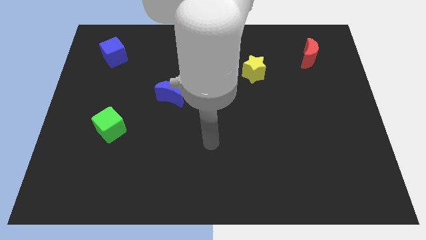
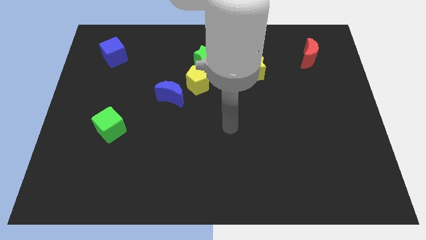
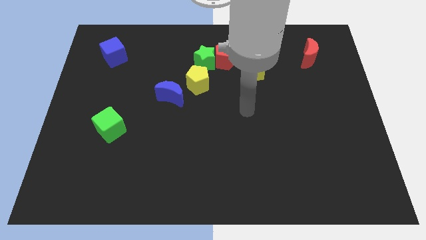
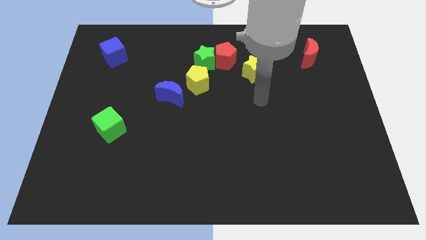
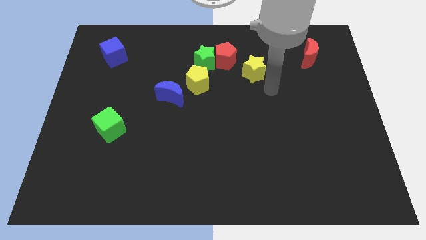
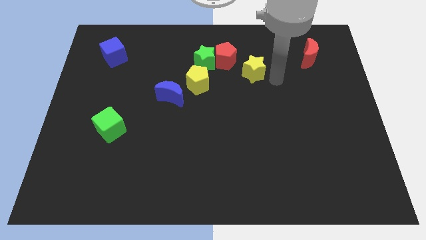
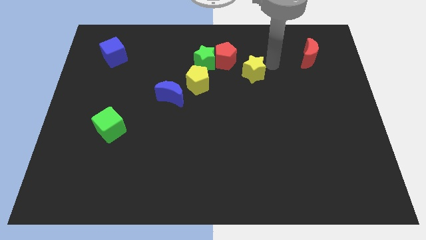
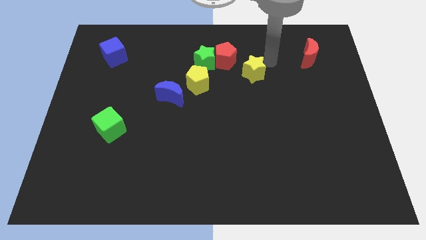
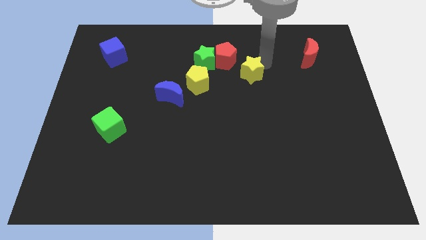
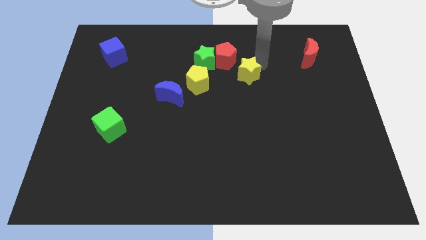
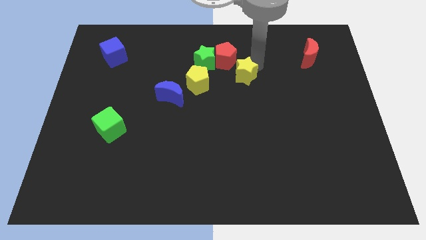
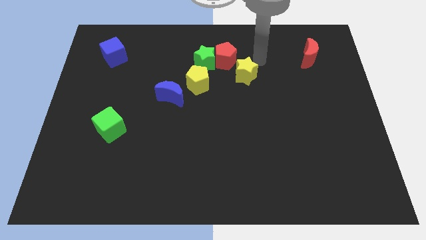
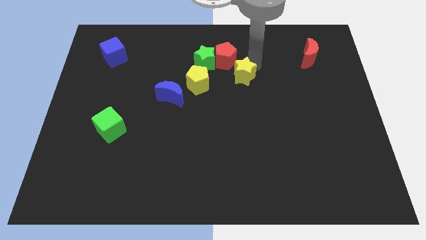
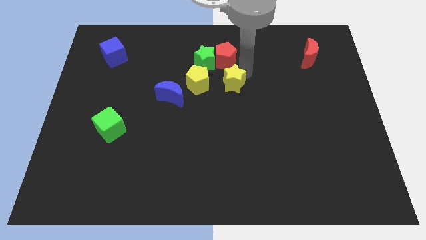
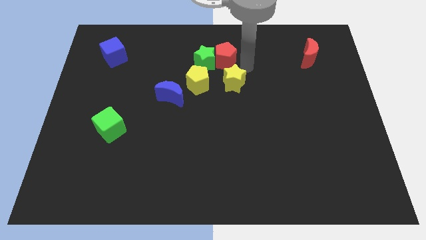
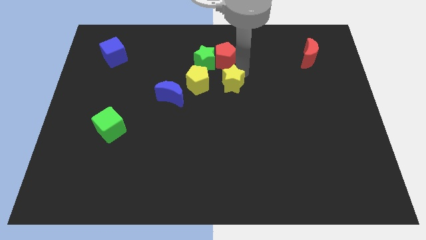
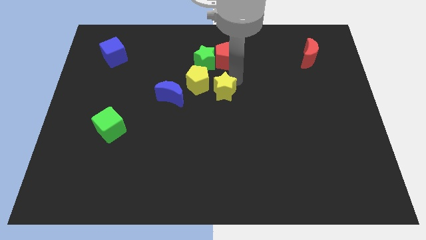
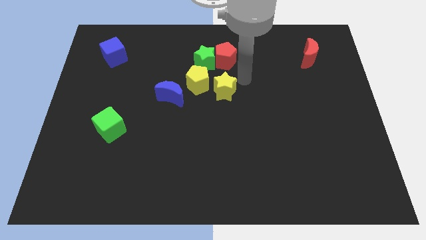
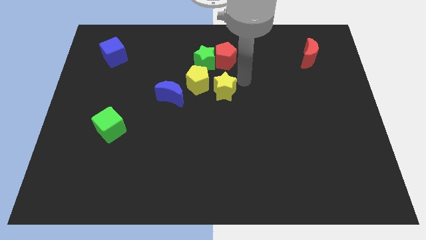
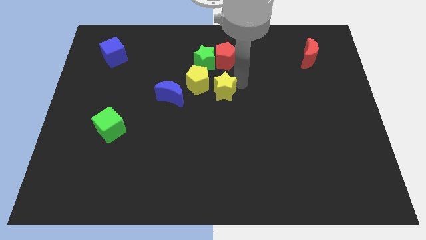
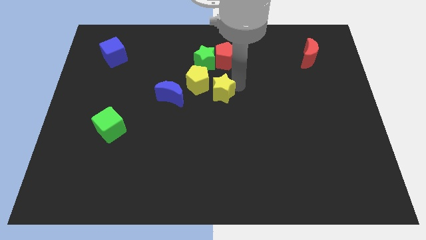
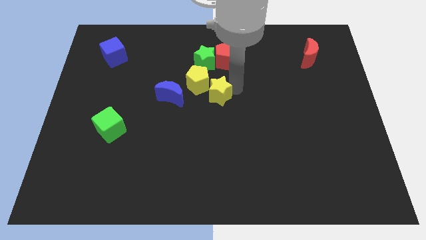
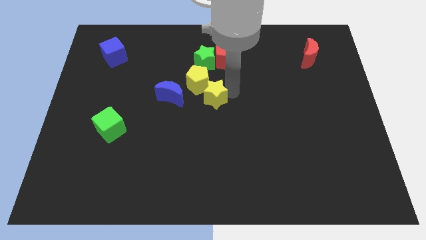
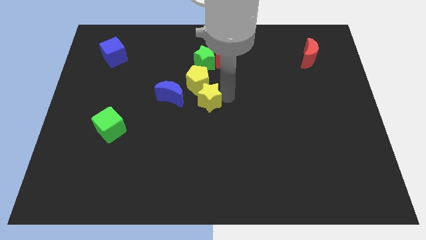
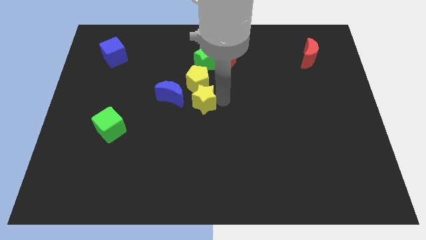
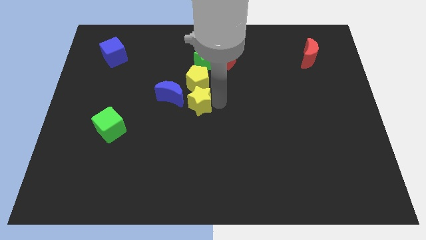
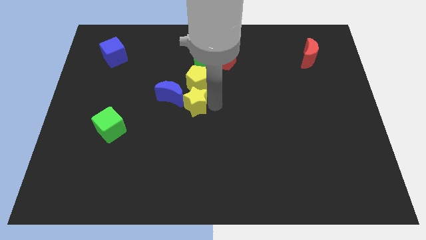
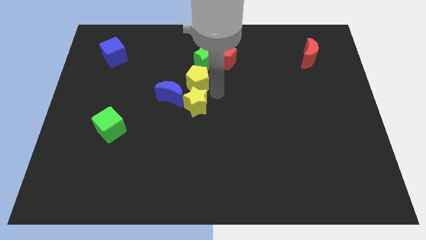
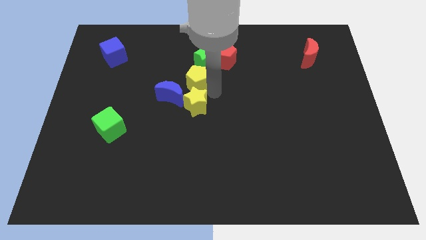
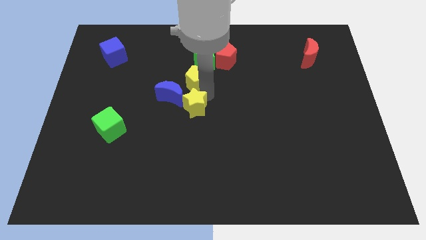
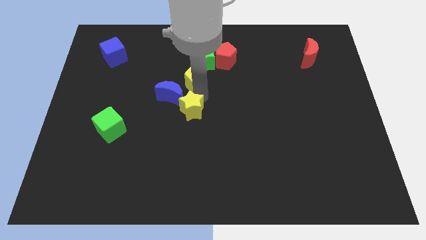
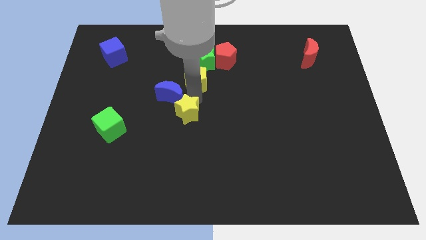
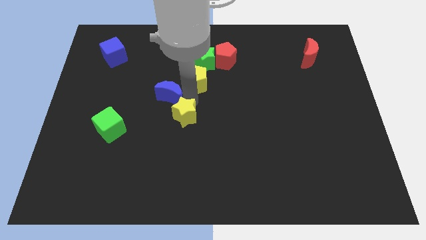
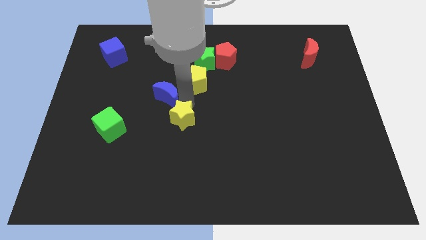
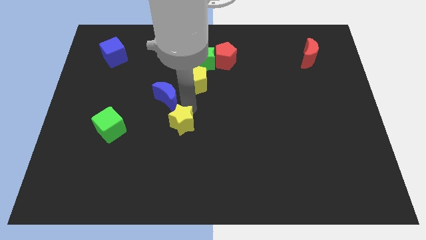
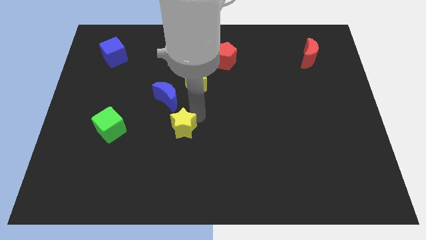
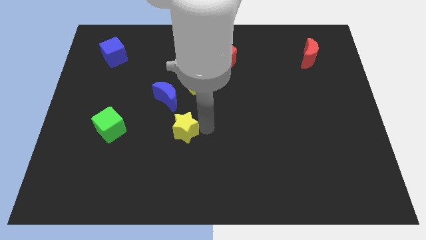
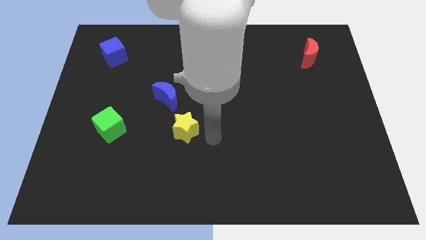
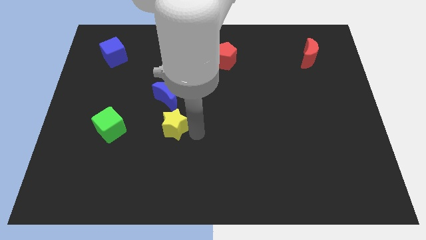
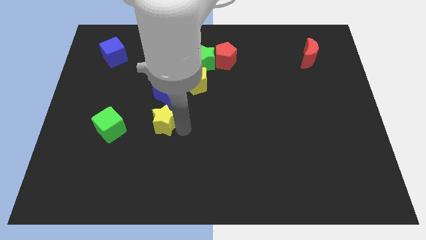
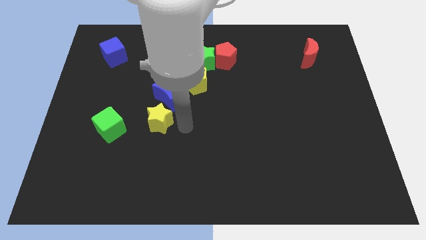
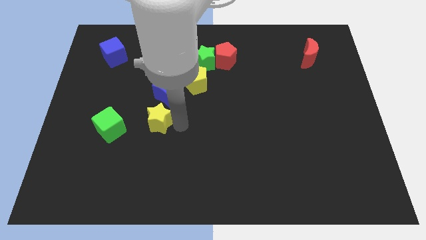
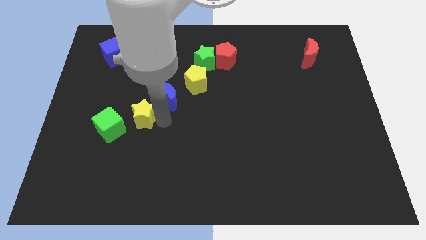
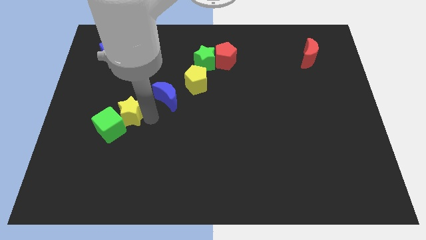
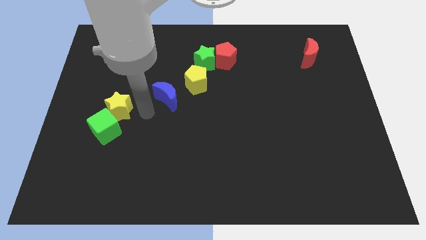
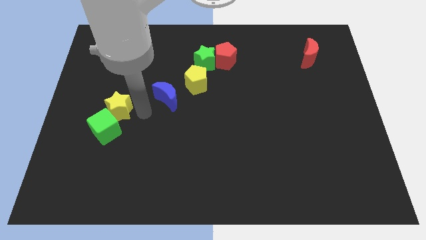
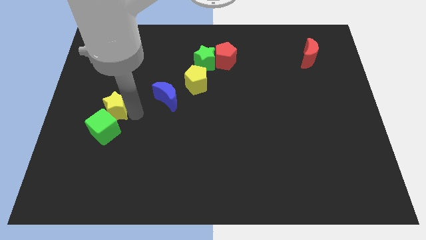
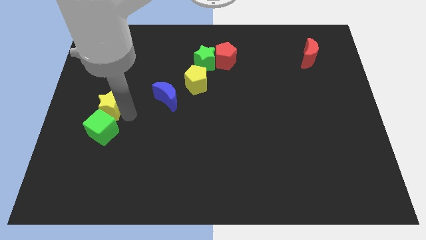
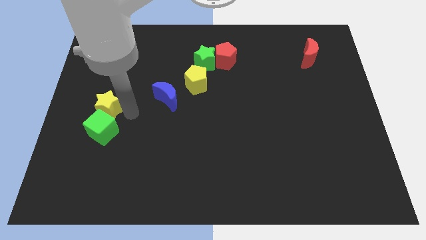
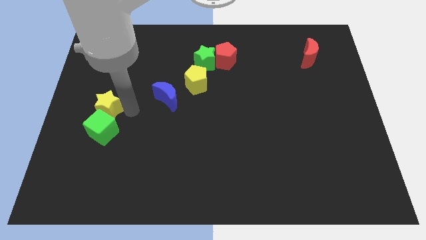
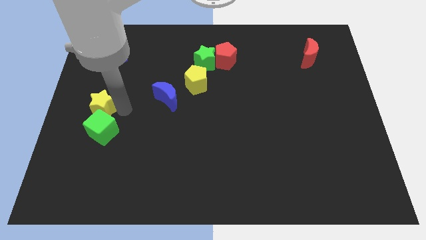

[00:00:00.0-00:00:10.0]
slide the yellow star to the left side

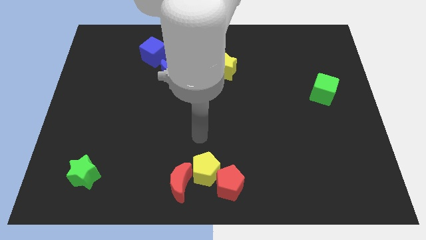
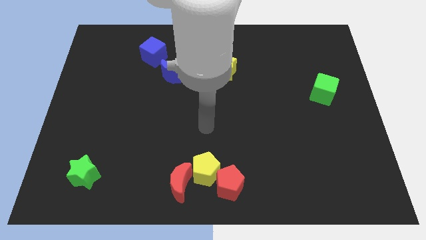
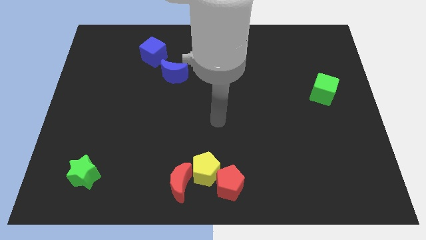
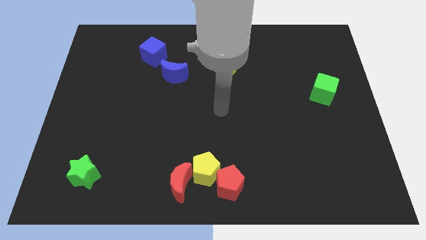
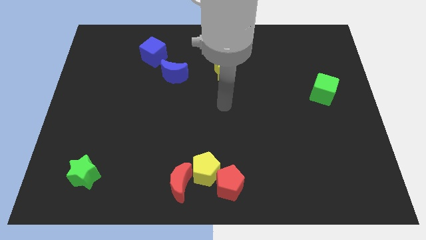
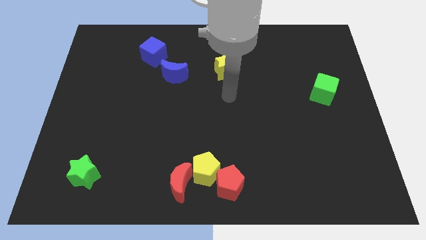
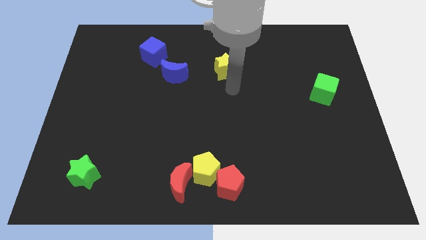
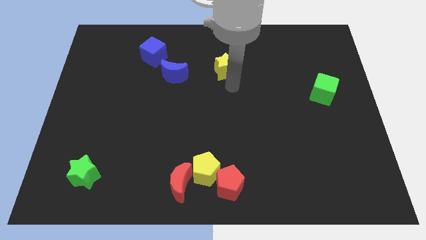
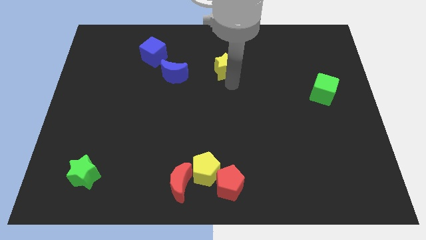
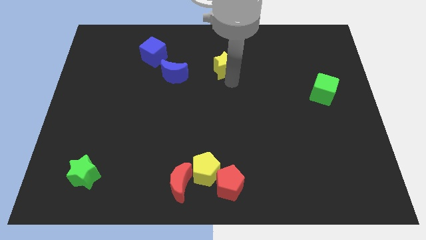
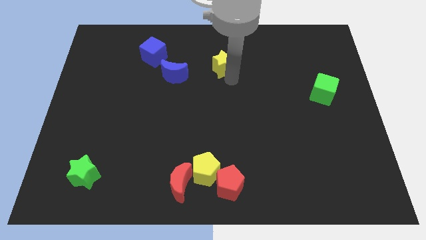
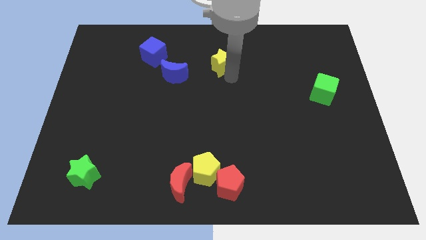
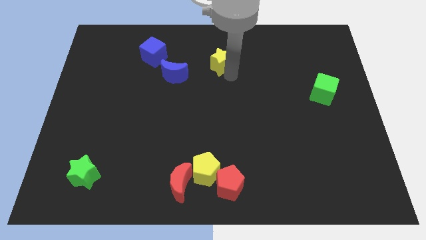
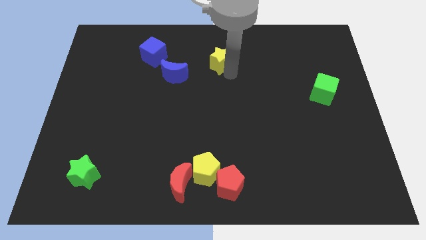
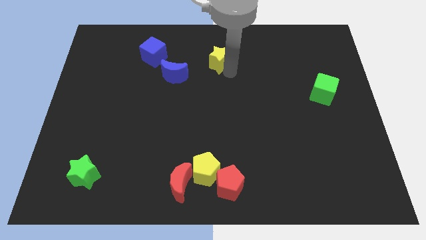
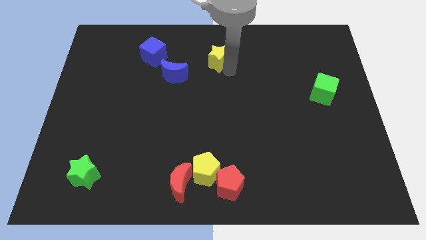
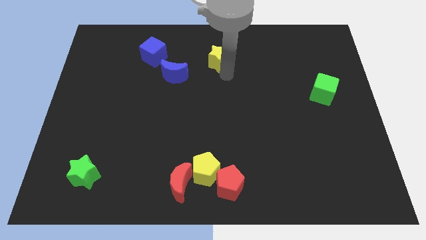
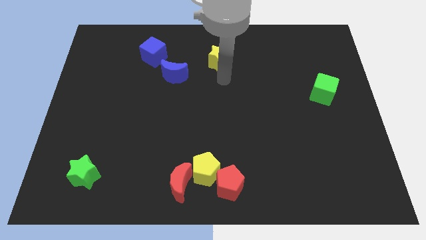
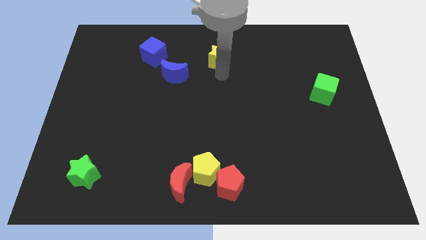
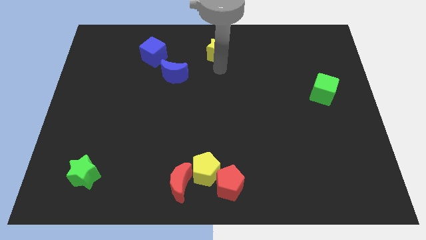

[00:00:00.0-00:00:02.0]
slide the yellow star to the towards your base

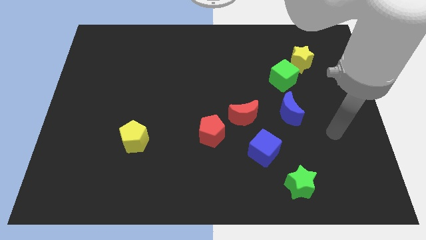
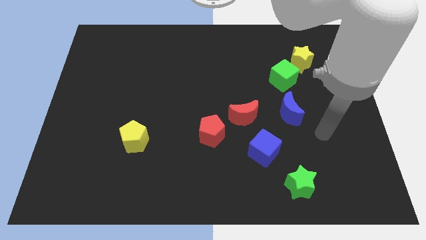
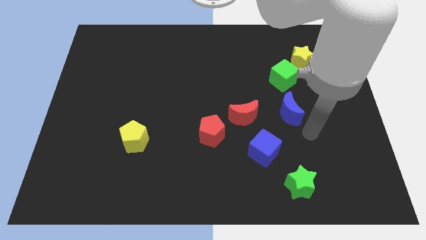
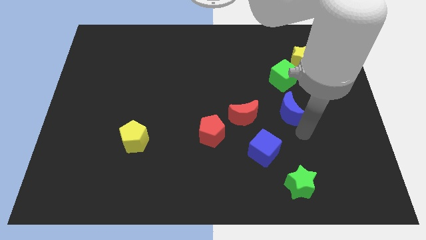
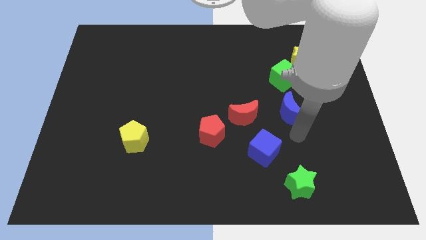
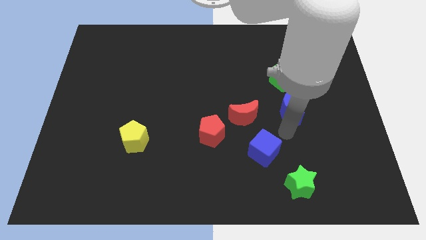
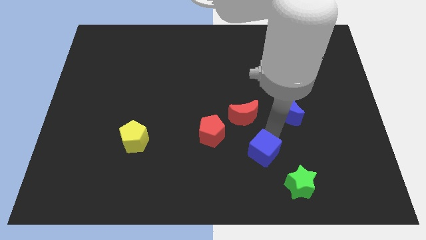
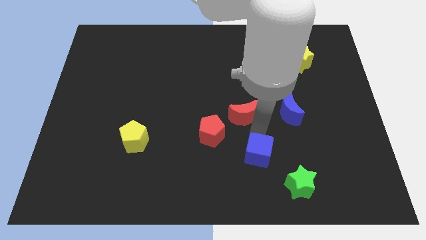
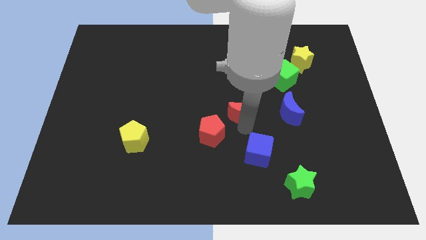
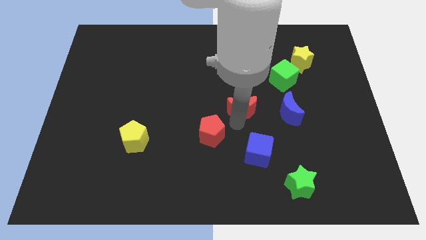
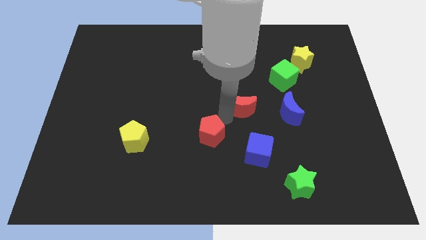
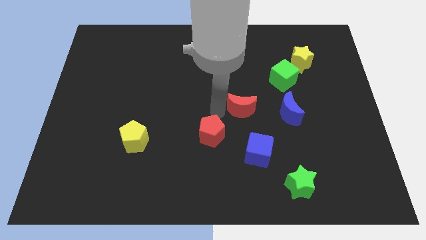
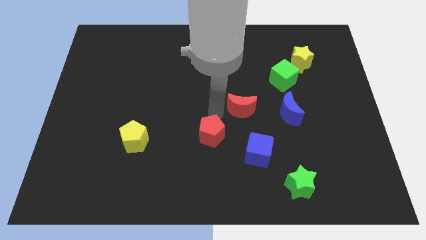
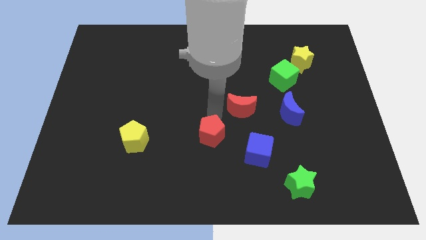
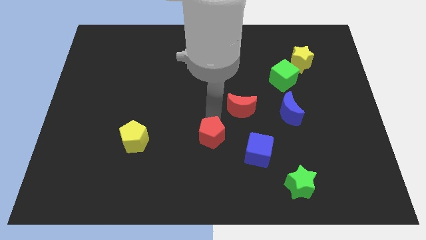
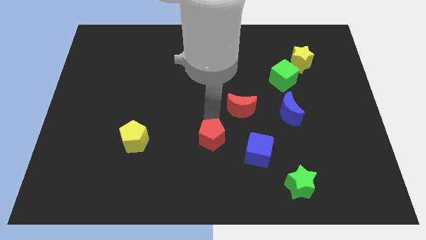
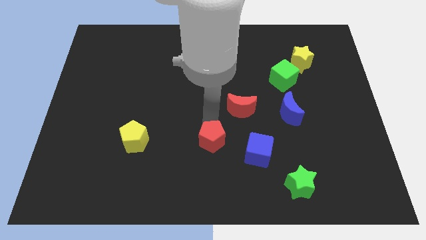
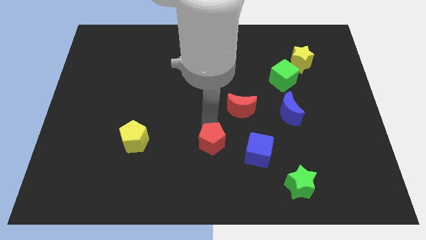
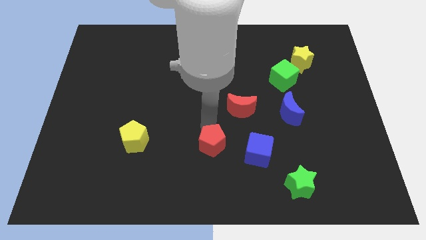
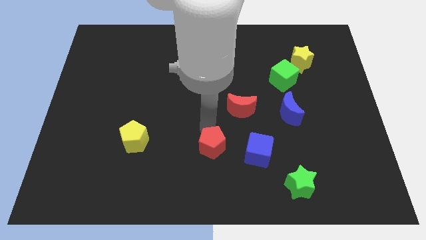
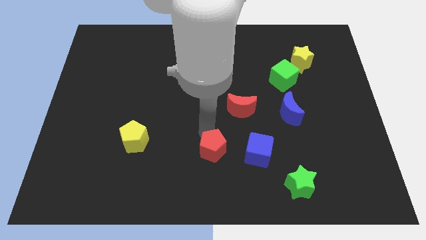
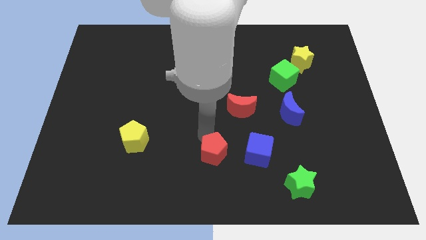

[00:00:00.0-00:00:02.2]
slide the red pentagon to the bottom side
